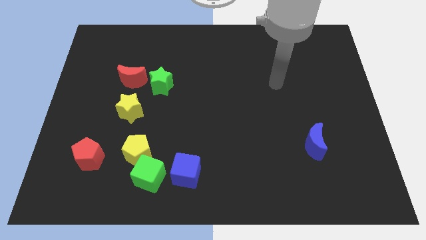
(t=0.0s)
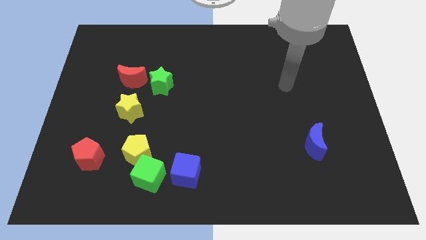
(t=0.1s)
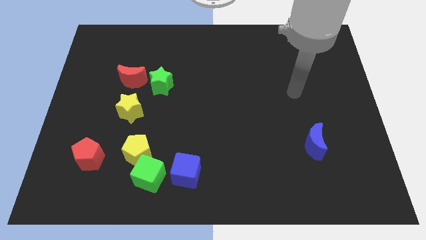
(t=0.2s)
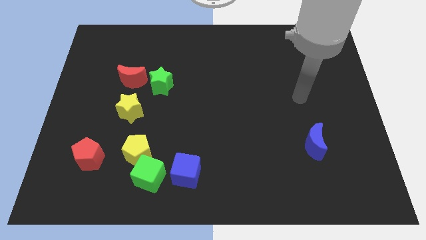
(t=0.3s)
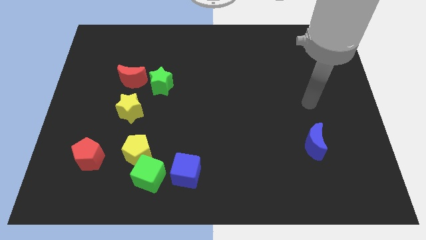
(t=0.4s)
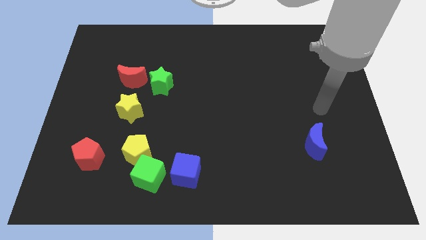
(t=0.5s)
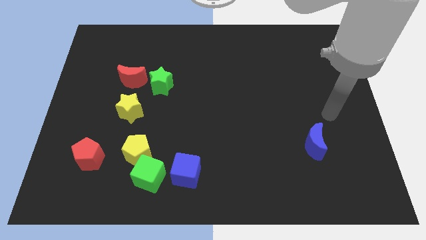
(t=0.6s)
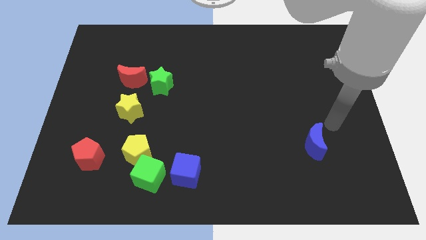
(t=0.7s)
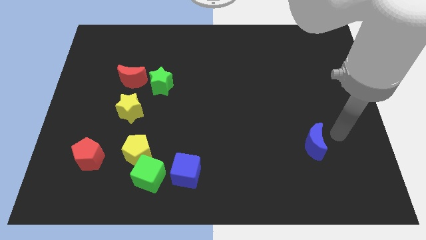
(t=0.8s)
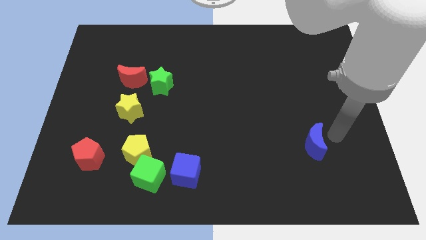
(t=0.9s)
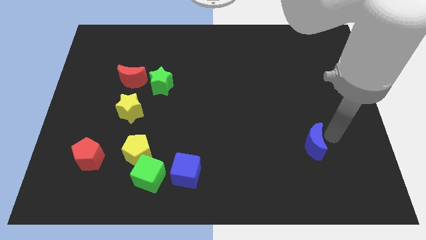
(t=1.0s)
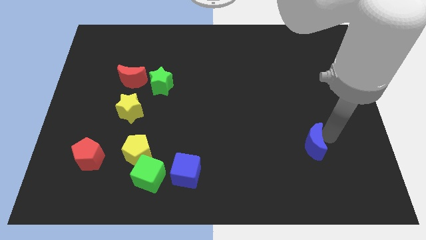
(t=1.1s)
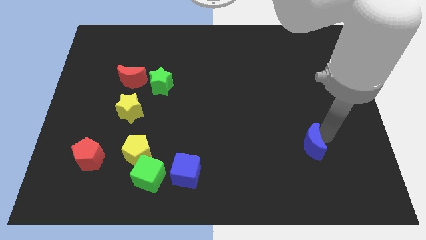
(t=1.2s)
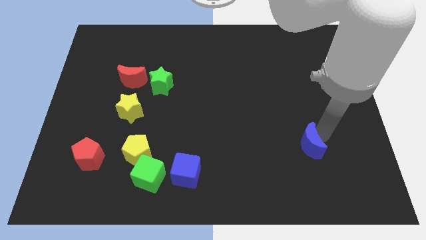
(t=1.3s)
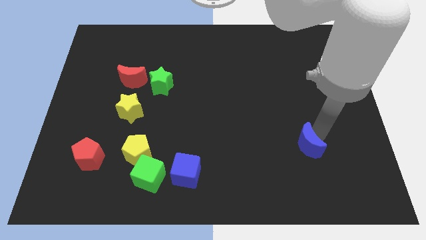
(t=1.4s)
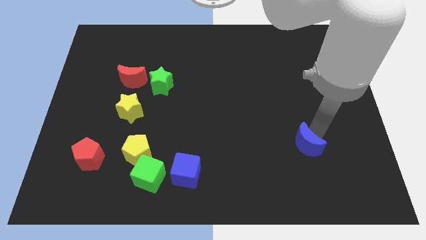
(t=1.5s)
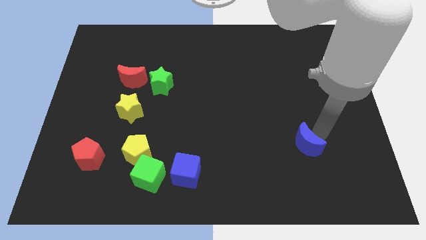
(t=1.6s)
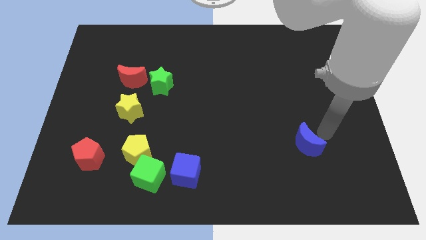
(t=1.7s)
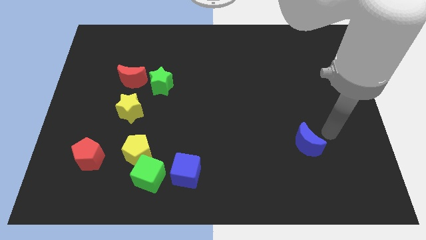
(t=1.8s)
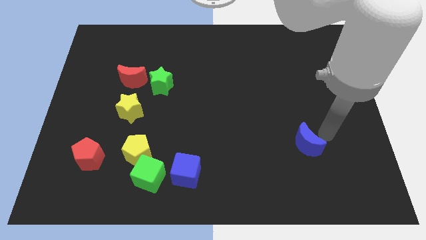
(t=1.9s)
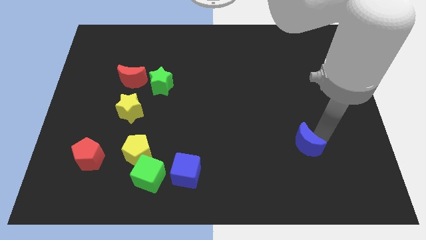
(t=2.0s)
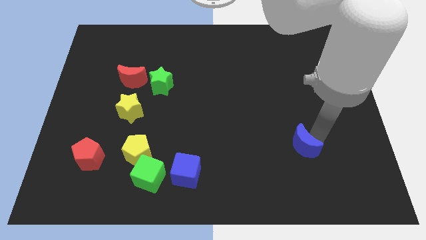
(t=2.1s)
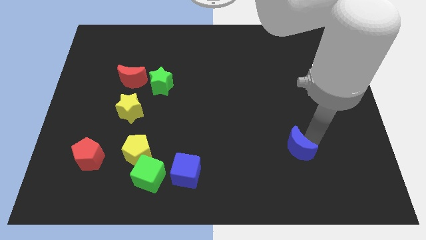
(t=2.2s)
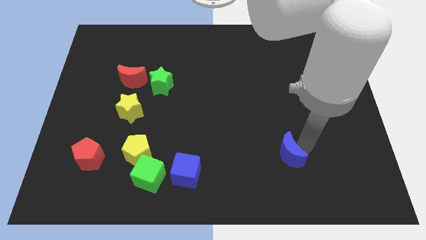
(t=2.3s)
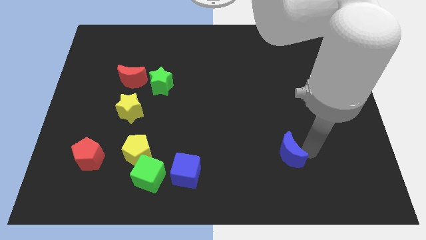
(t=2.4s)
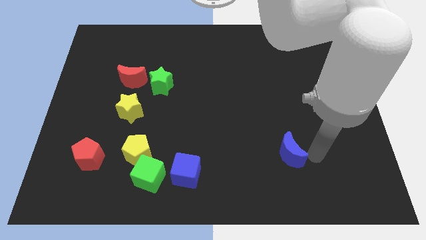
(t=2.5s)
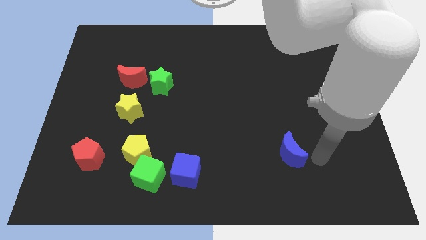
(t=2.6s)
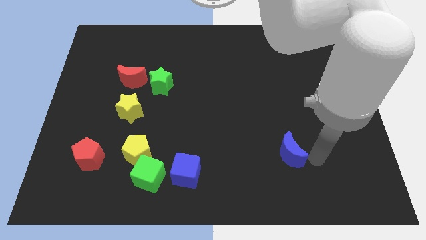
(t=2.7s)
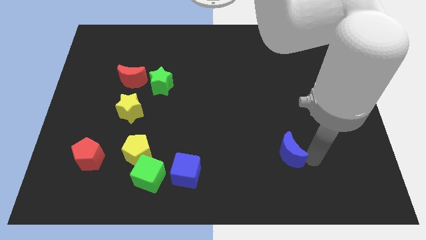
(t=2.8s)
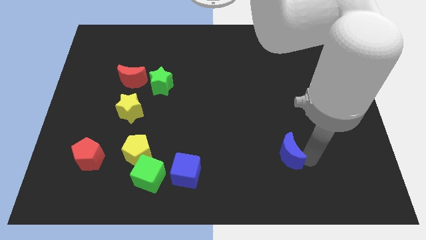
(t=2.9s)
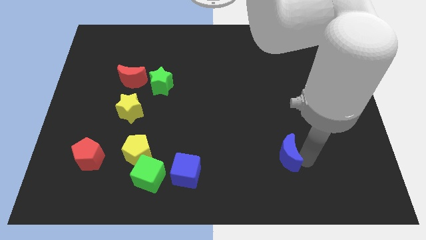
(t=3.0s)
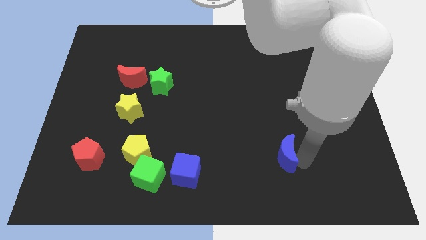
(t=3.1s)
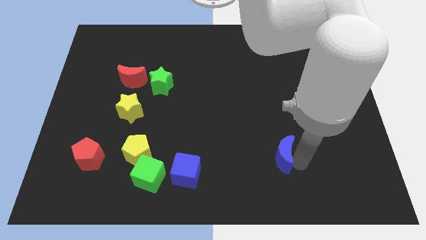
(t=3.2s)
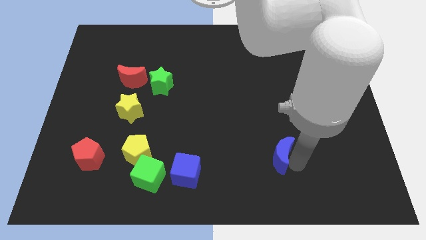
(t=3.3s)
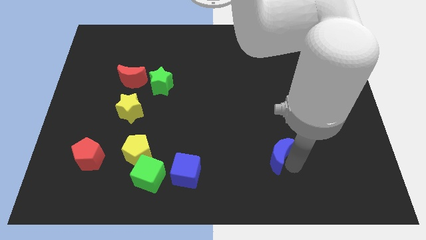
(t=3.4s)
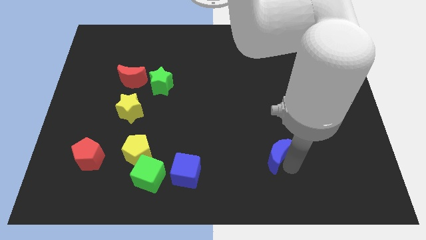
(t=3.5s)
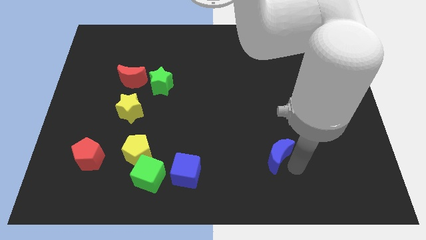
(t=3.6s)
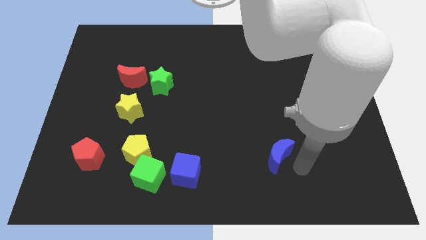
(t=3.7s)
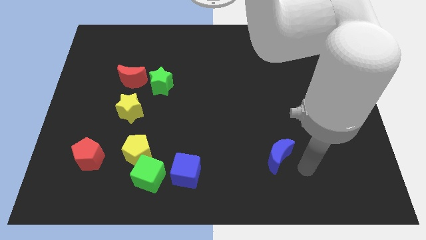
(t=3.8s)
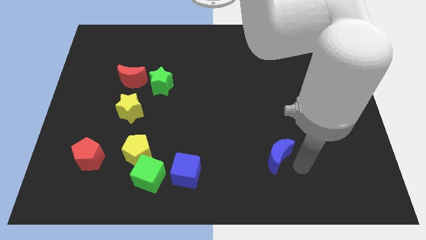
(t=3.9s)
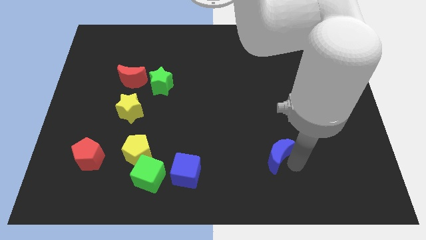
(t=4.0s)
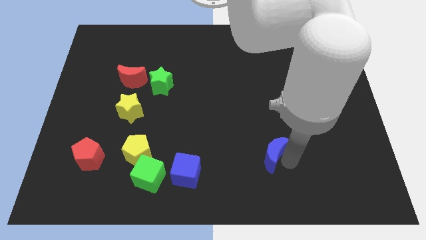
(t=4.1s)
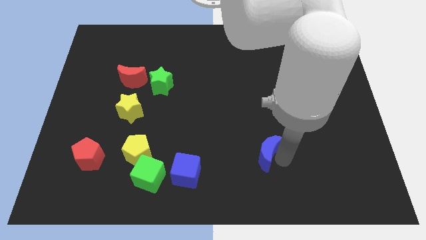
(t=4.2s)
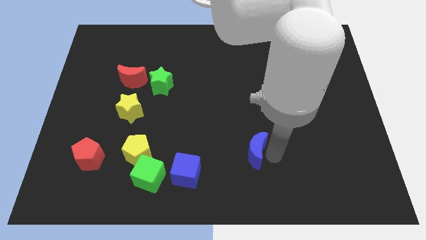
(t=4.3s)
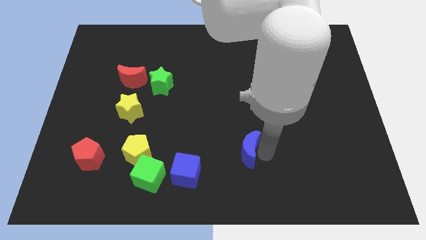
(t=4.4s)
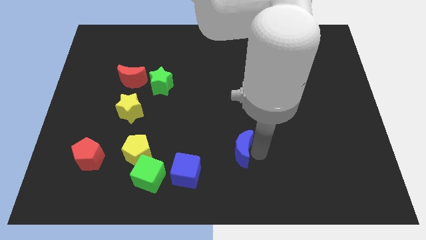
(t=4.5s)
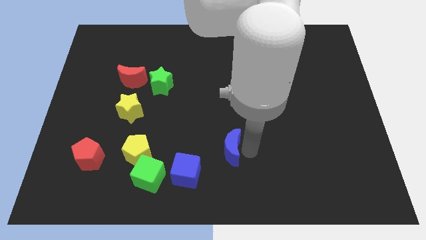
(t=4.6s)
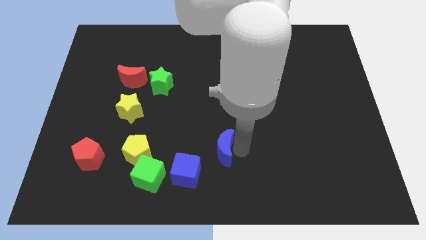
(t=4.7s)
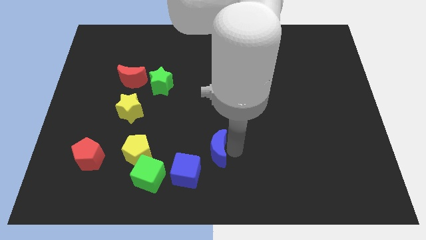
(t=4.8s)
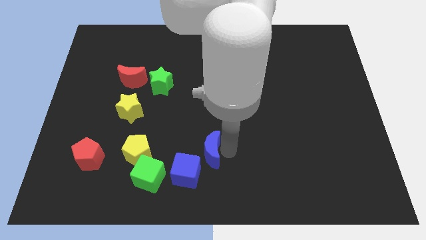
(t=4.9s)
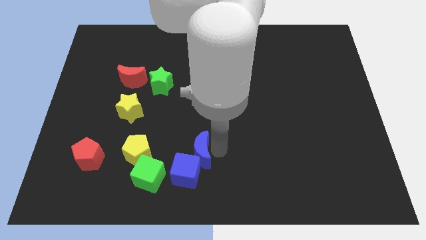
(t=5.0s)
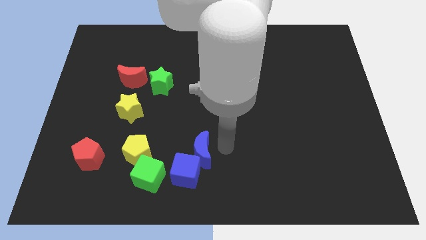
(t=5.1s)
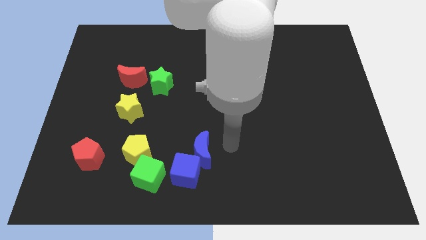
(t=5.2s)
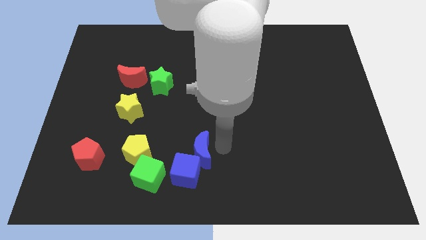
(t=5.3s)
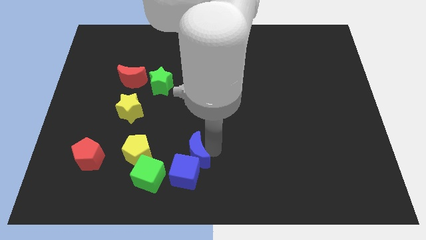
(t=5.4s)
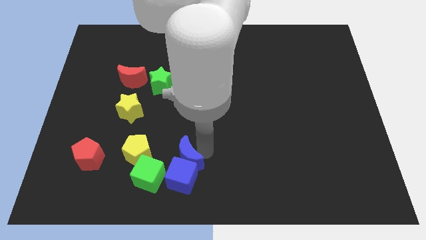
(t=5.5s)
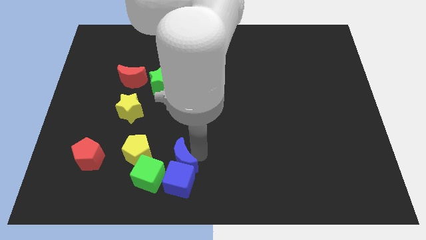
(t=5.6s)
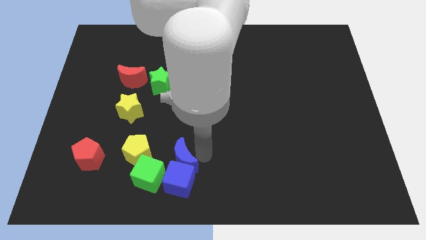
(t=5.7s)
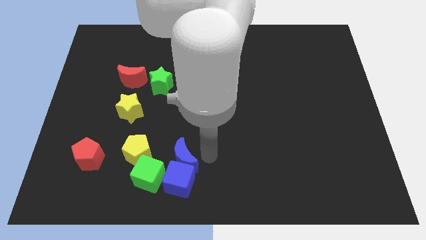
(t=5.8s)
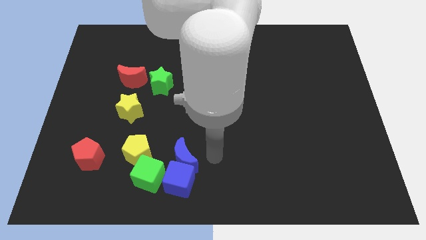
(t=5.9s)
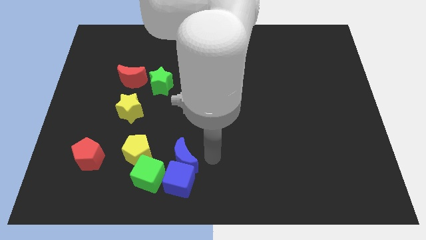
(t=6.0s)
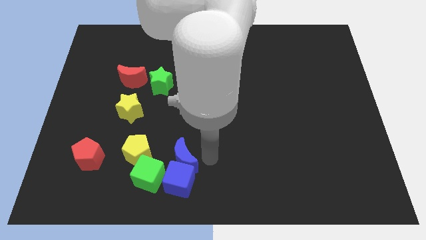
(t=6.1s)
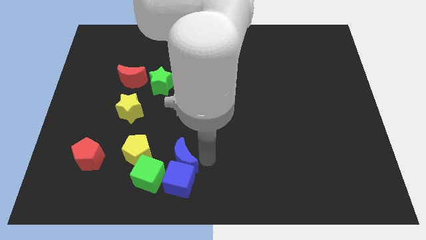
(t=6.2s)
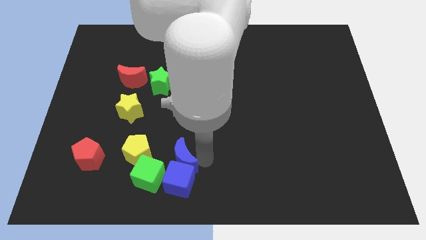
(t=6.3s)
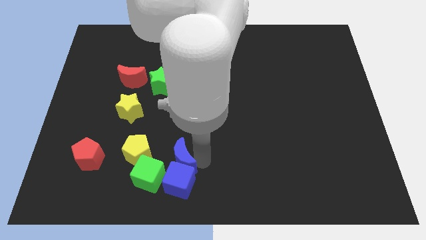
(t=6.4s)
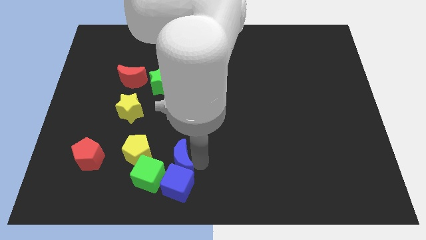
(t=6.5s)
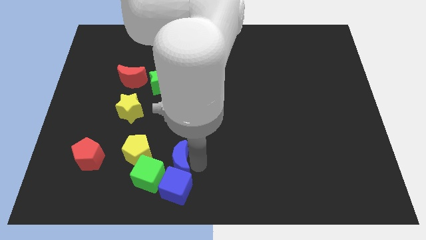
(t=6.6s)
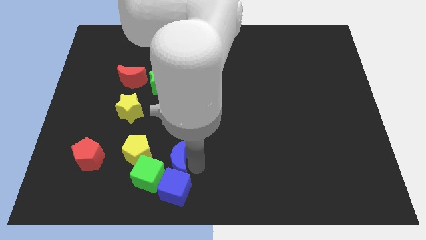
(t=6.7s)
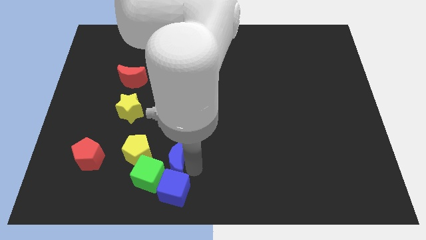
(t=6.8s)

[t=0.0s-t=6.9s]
move the blue moon close to the green cube

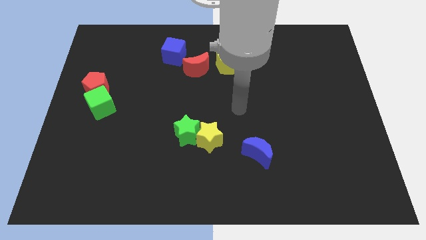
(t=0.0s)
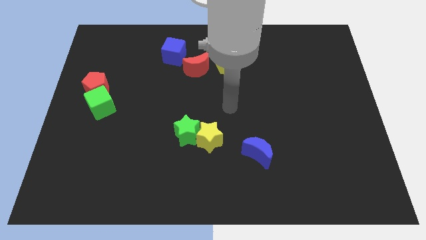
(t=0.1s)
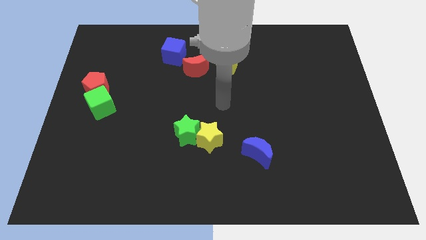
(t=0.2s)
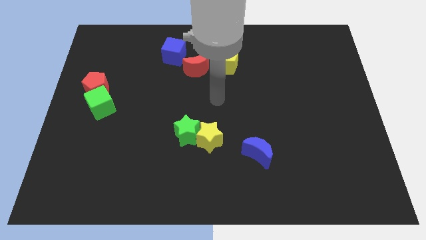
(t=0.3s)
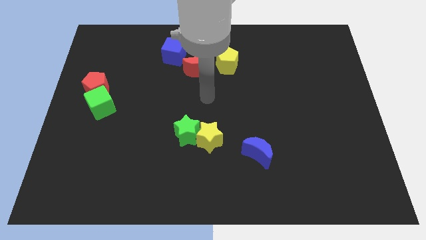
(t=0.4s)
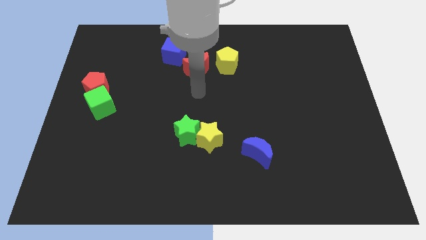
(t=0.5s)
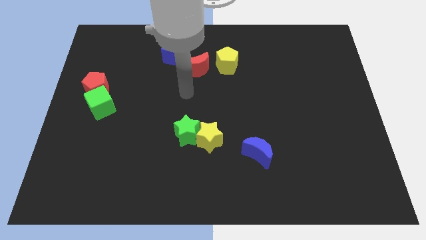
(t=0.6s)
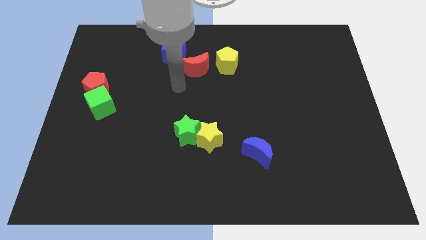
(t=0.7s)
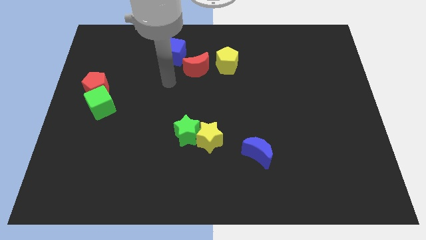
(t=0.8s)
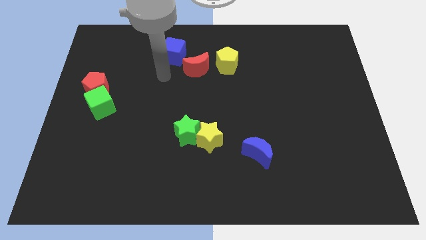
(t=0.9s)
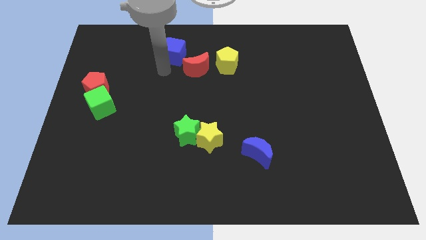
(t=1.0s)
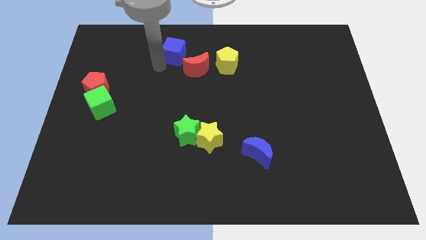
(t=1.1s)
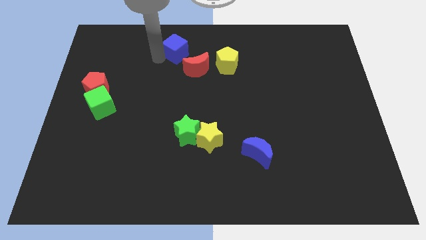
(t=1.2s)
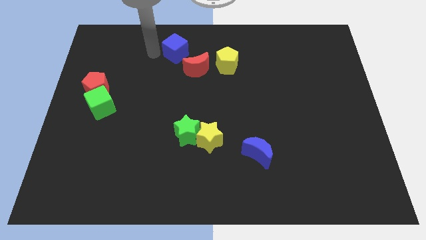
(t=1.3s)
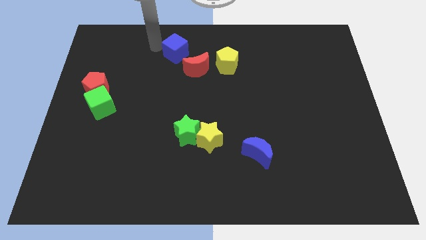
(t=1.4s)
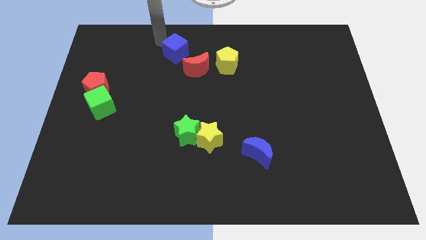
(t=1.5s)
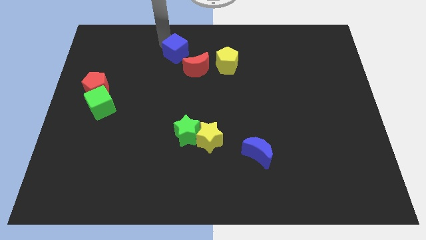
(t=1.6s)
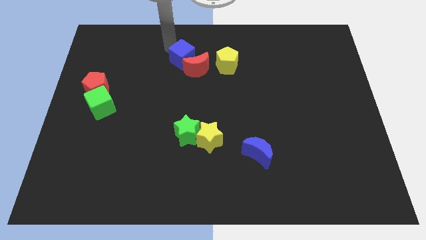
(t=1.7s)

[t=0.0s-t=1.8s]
move the blue cube to the red moon
